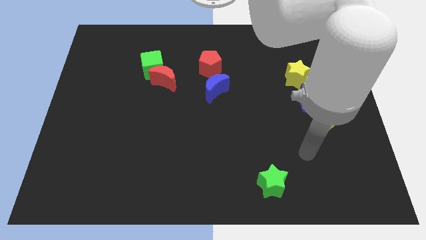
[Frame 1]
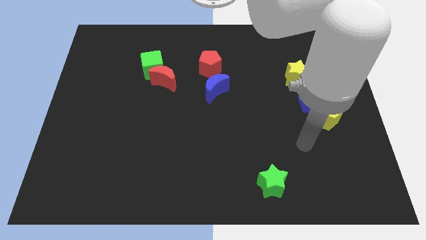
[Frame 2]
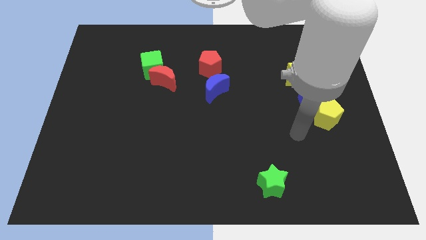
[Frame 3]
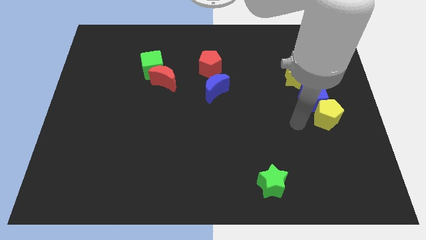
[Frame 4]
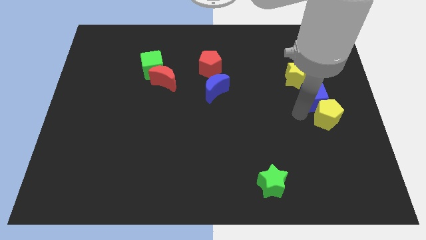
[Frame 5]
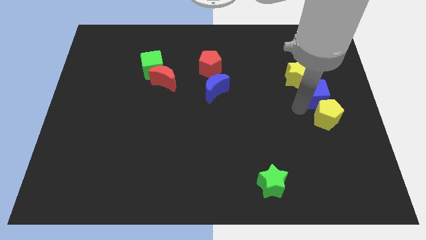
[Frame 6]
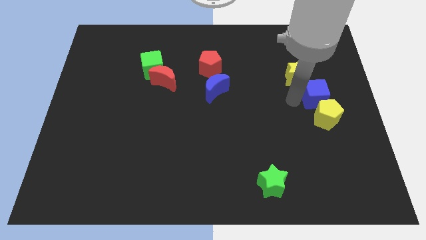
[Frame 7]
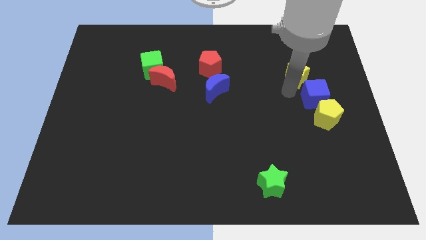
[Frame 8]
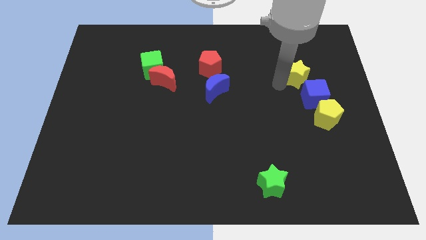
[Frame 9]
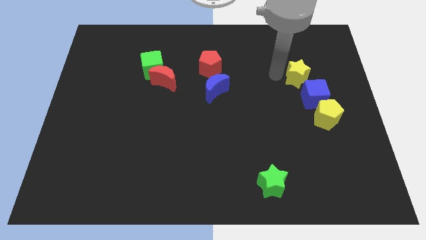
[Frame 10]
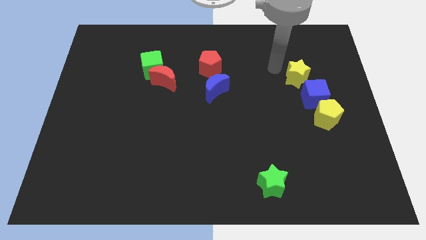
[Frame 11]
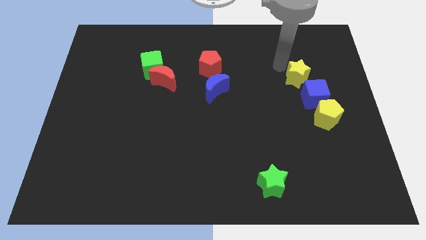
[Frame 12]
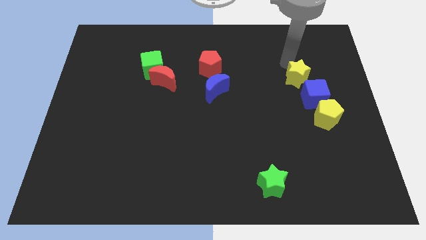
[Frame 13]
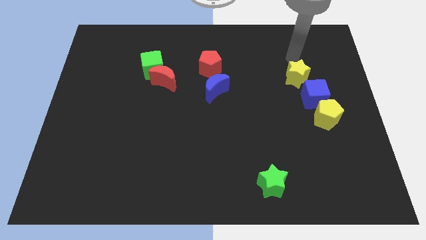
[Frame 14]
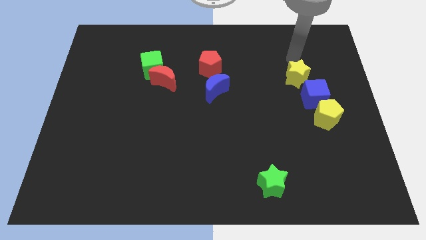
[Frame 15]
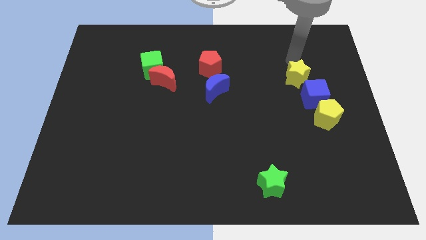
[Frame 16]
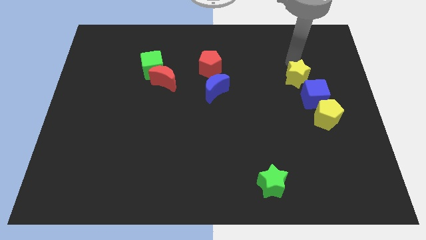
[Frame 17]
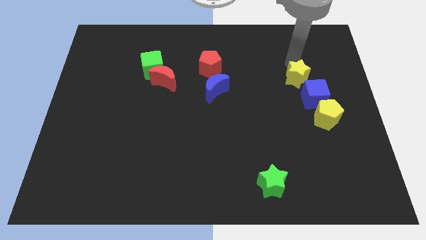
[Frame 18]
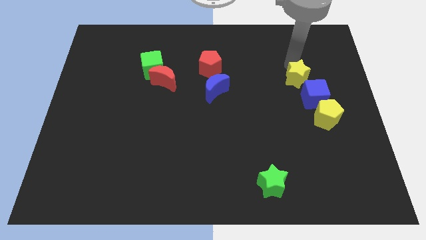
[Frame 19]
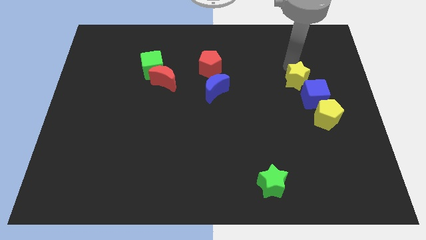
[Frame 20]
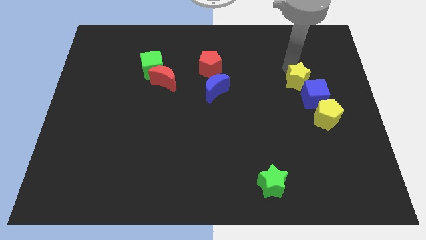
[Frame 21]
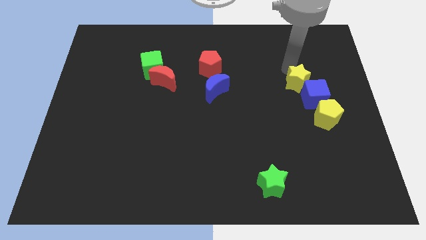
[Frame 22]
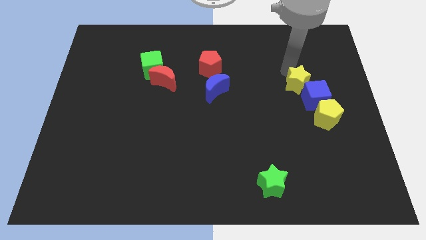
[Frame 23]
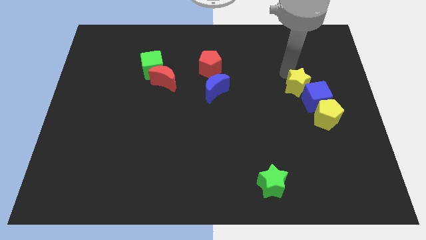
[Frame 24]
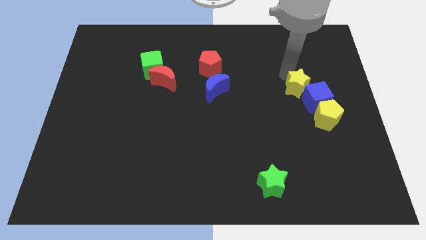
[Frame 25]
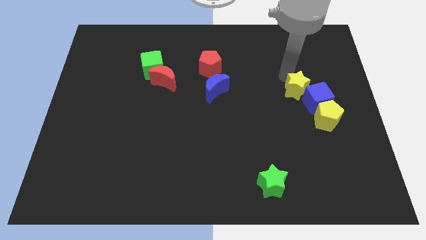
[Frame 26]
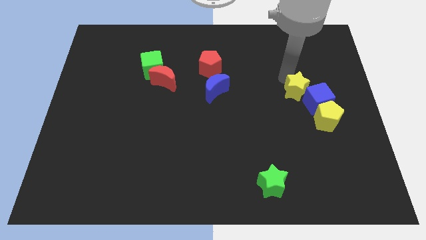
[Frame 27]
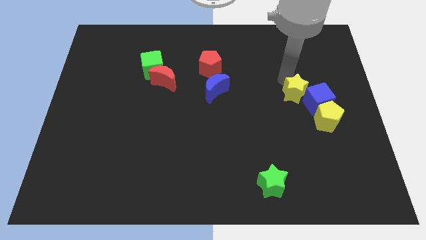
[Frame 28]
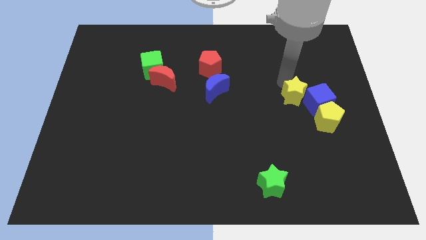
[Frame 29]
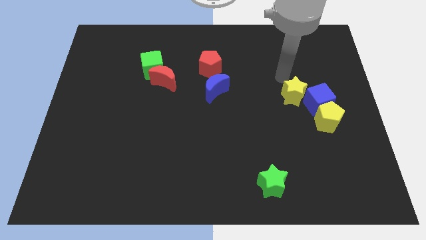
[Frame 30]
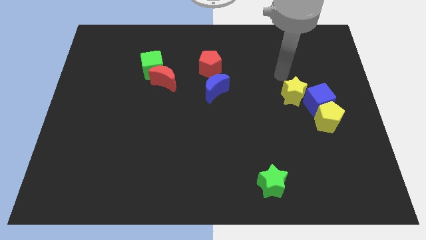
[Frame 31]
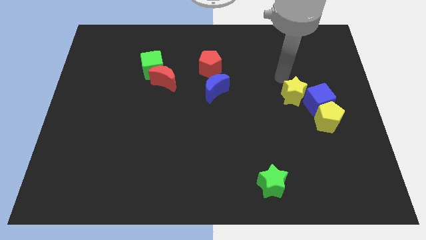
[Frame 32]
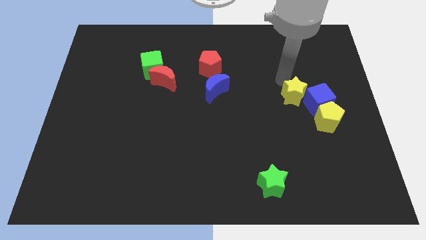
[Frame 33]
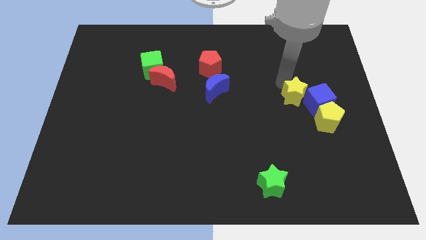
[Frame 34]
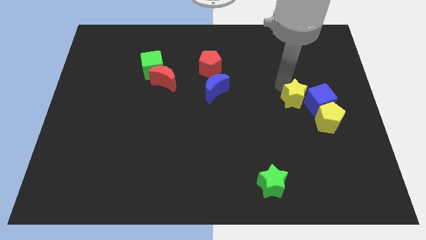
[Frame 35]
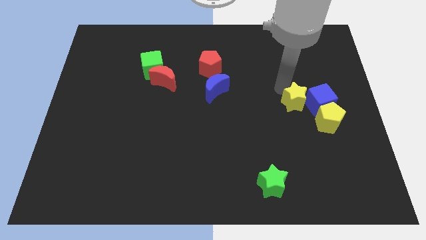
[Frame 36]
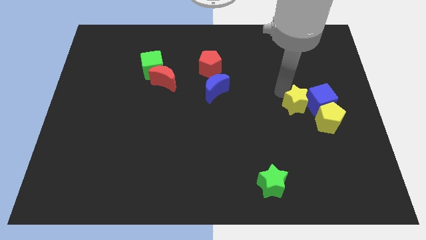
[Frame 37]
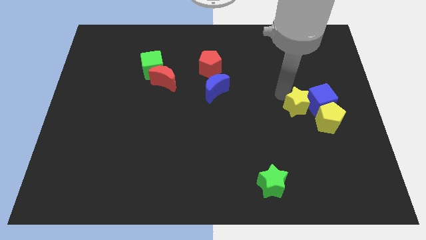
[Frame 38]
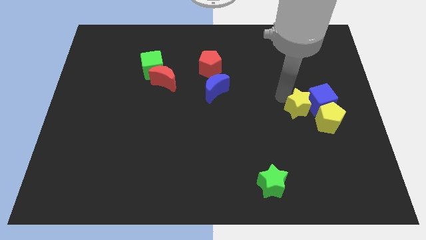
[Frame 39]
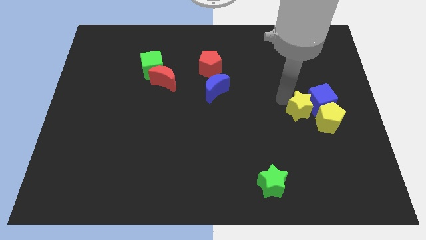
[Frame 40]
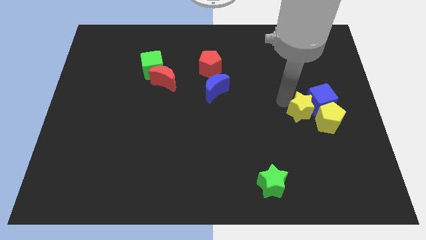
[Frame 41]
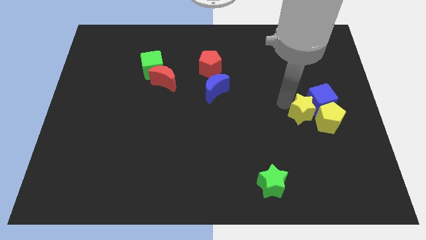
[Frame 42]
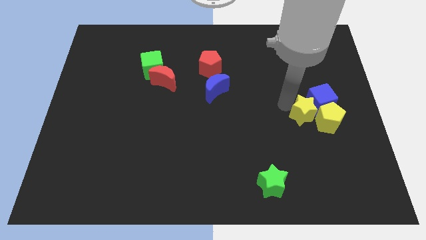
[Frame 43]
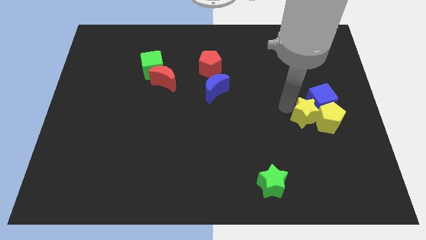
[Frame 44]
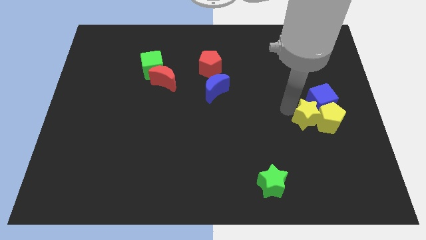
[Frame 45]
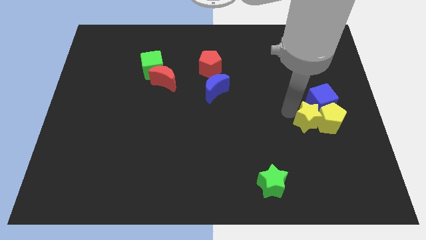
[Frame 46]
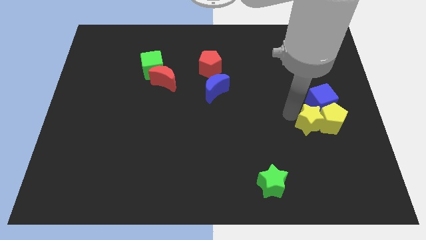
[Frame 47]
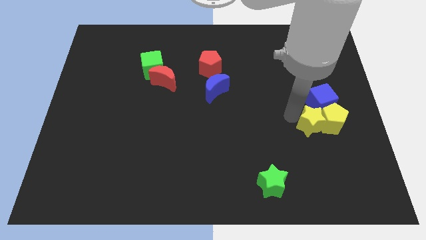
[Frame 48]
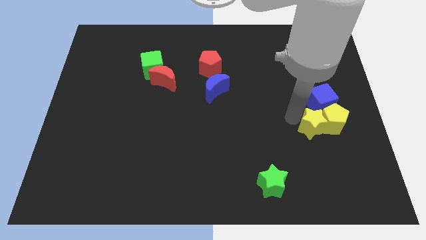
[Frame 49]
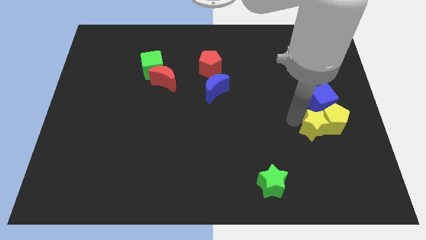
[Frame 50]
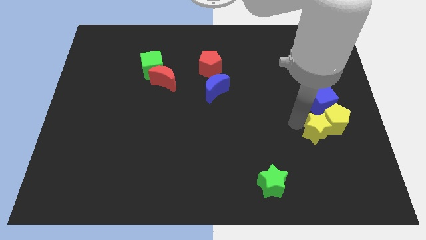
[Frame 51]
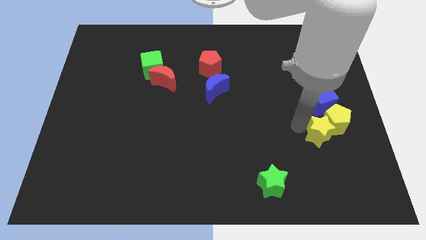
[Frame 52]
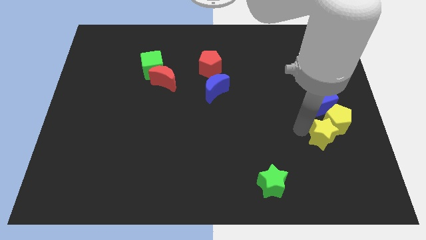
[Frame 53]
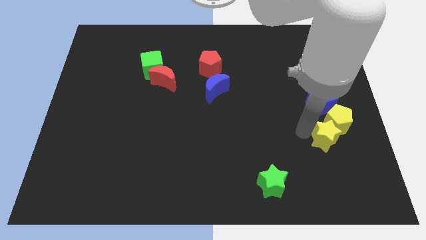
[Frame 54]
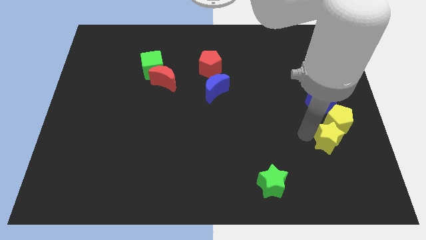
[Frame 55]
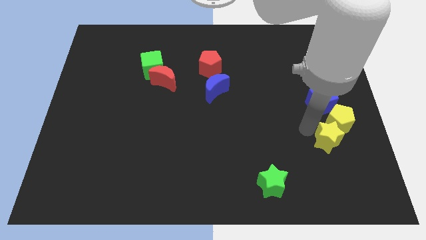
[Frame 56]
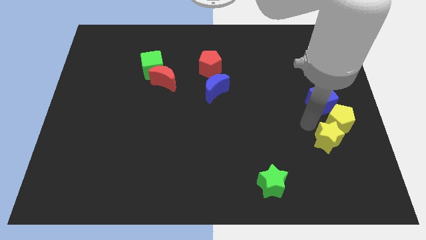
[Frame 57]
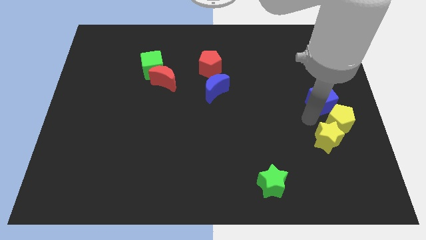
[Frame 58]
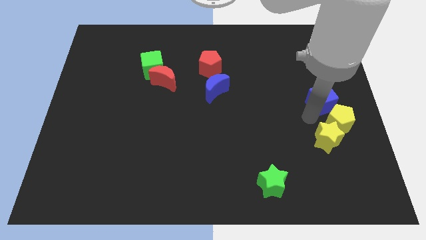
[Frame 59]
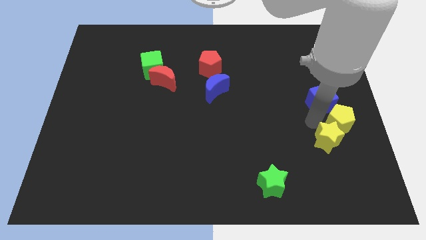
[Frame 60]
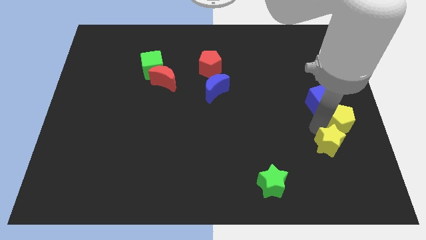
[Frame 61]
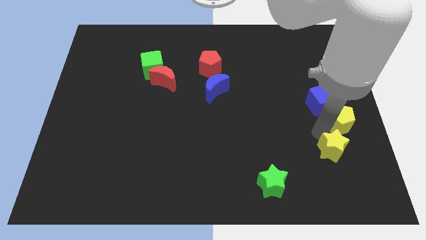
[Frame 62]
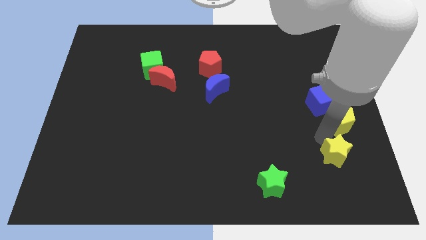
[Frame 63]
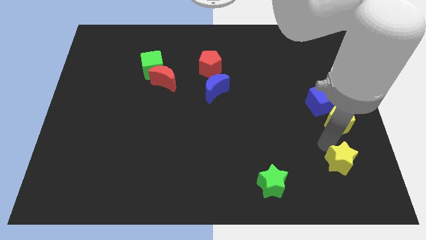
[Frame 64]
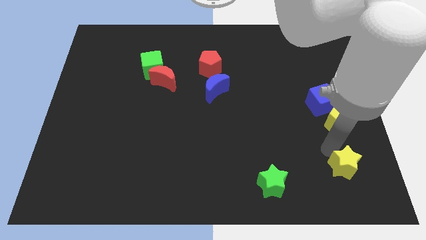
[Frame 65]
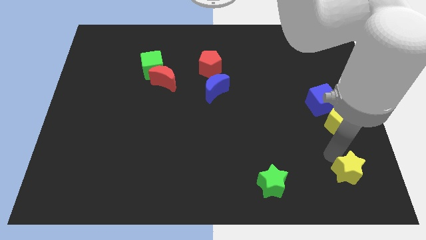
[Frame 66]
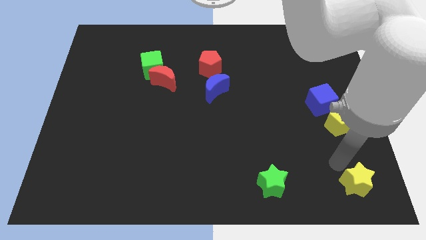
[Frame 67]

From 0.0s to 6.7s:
push the yellow star to the lower right corner
